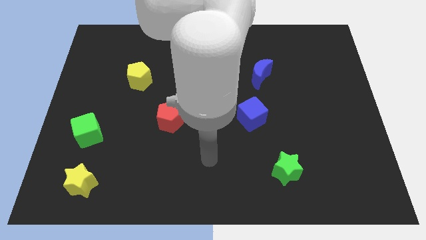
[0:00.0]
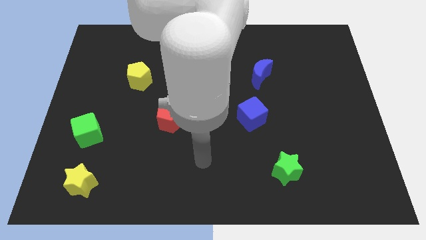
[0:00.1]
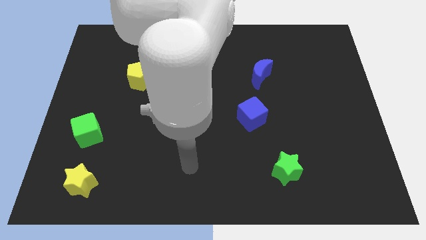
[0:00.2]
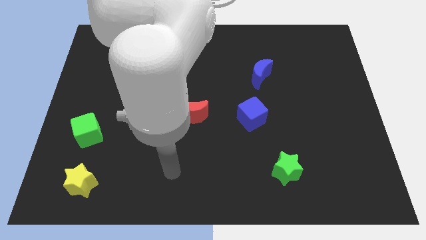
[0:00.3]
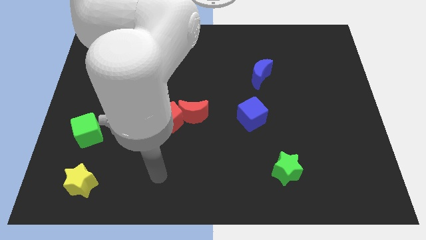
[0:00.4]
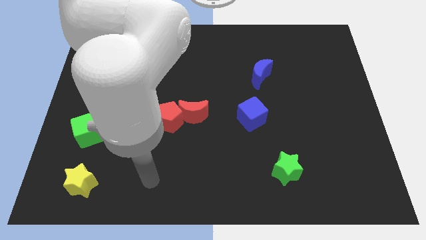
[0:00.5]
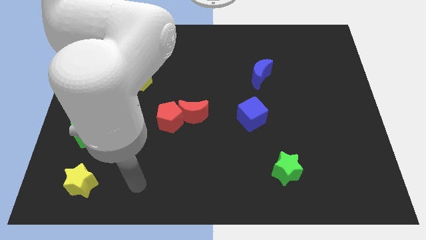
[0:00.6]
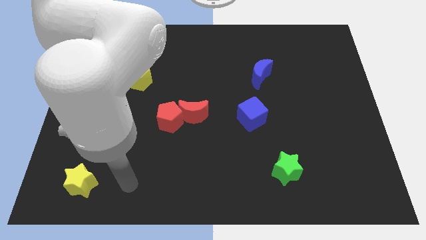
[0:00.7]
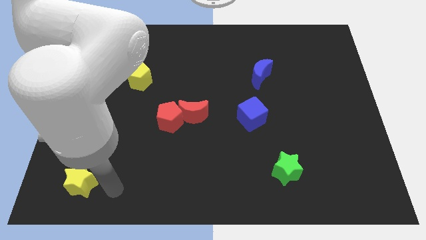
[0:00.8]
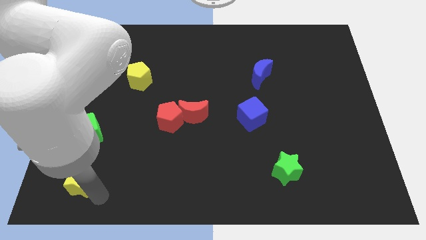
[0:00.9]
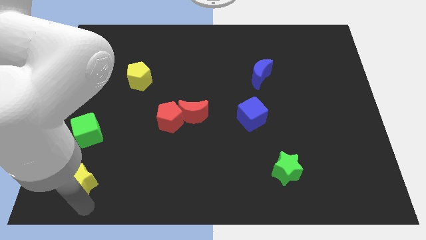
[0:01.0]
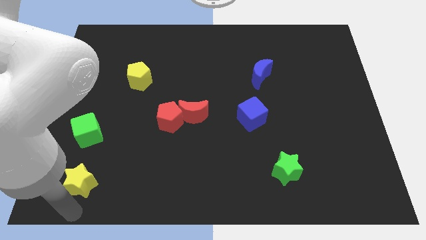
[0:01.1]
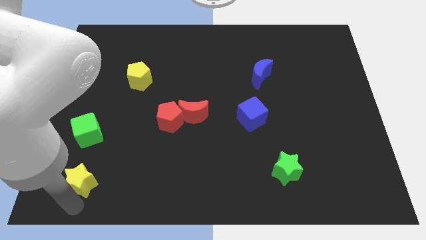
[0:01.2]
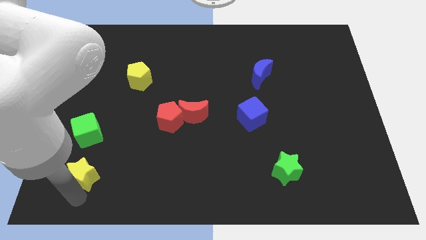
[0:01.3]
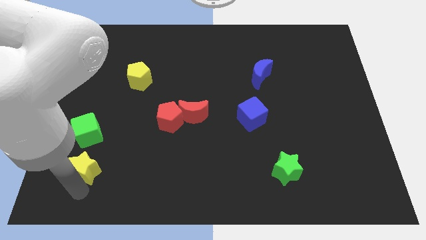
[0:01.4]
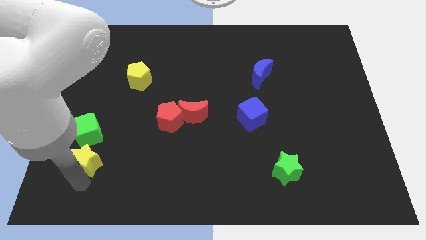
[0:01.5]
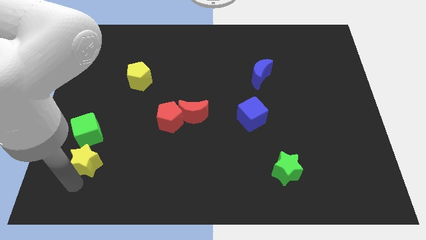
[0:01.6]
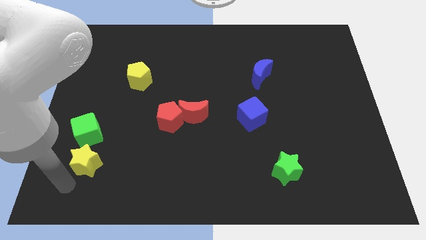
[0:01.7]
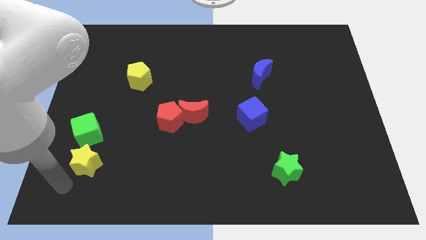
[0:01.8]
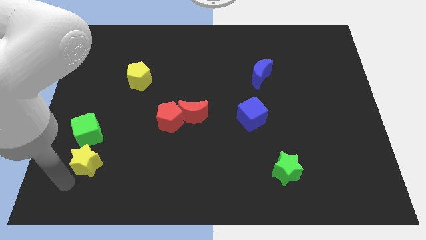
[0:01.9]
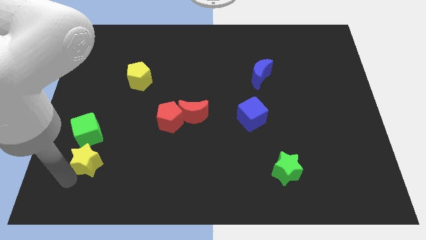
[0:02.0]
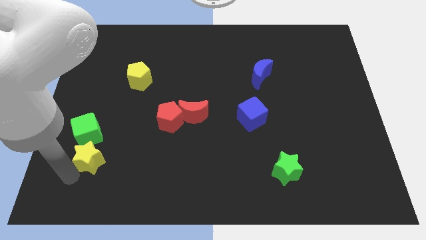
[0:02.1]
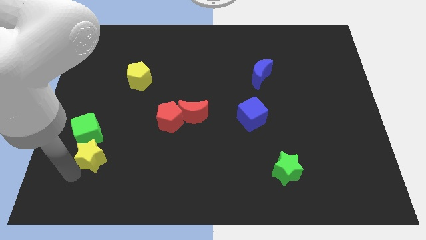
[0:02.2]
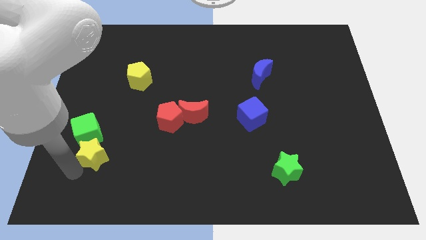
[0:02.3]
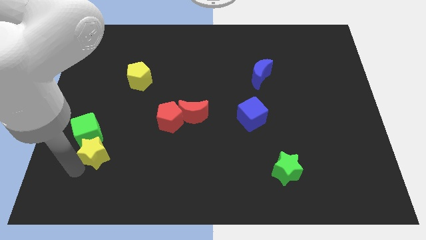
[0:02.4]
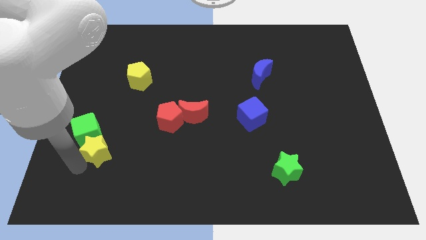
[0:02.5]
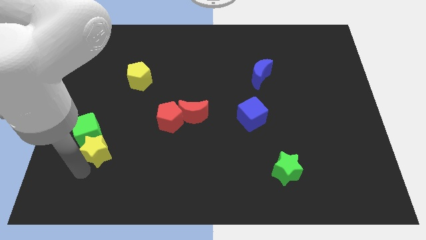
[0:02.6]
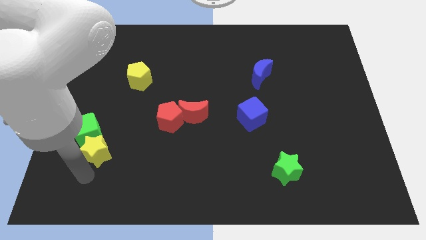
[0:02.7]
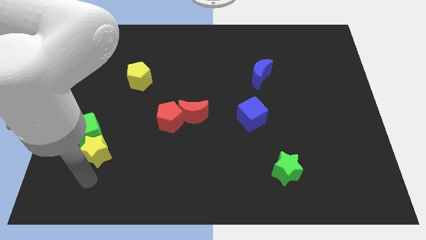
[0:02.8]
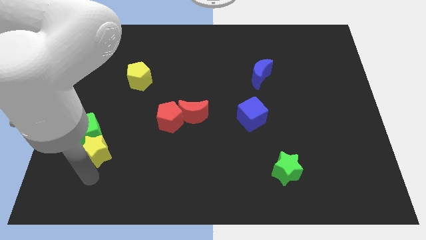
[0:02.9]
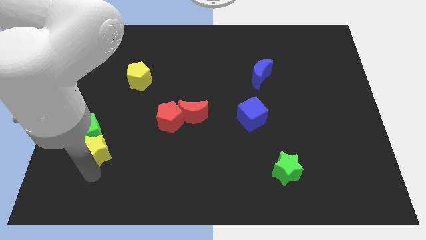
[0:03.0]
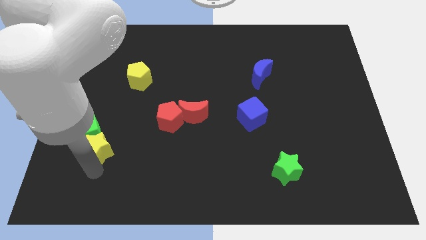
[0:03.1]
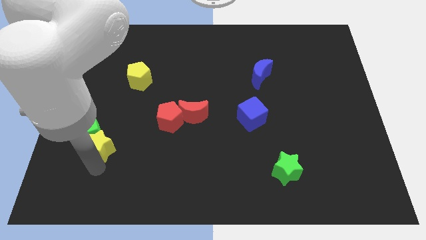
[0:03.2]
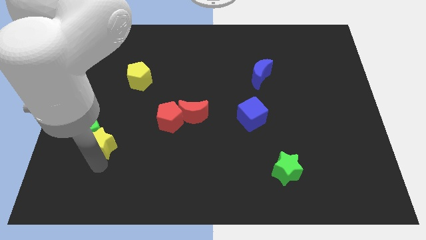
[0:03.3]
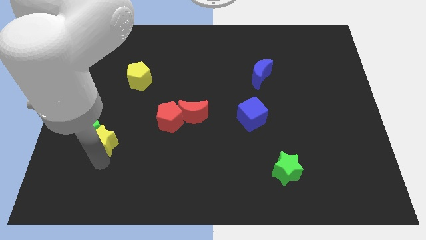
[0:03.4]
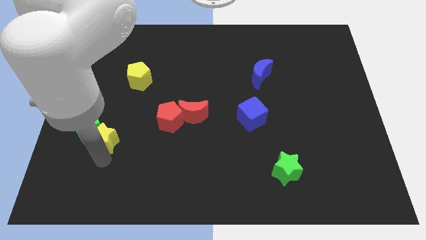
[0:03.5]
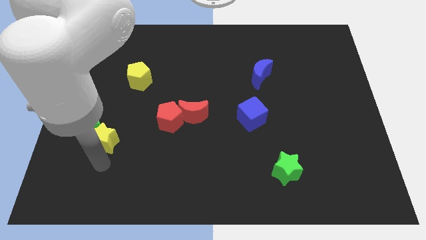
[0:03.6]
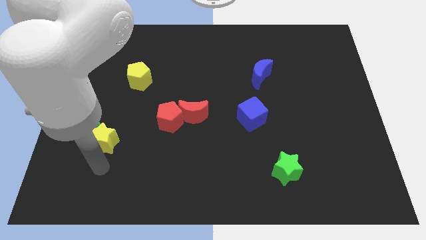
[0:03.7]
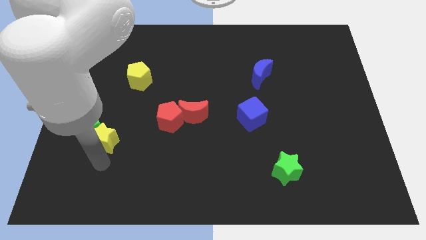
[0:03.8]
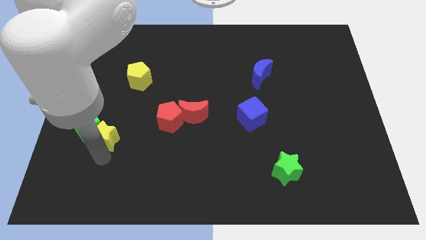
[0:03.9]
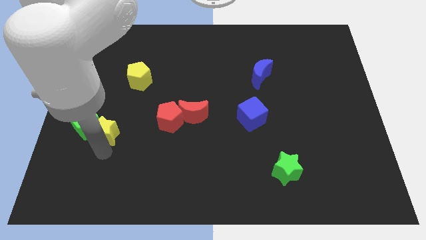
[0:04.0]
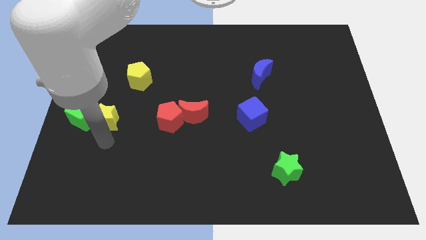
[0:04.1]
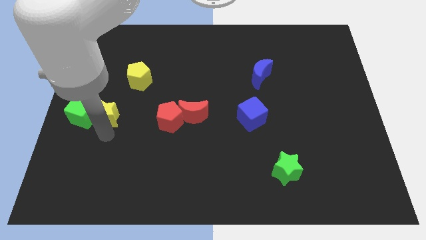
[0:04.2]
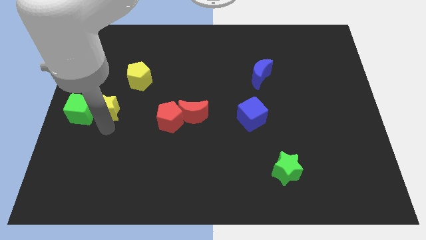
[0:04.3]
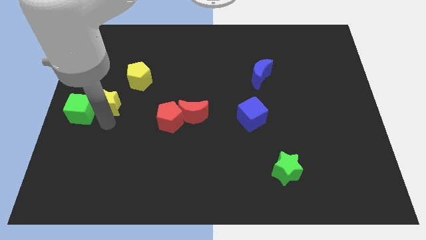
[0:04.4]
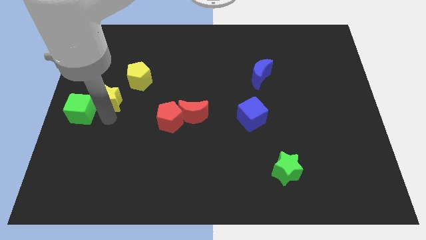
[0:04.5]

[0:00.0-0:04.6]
move the yellow star upwards

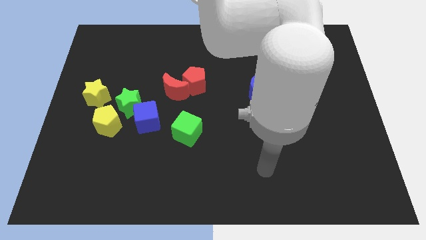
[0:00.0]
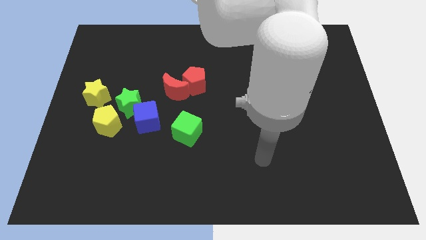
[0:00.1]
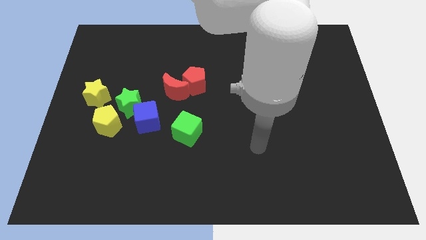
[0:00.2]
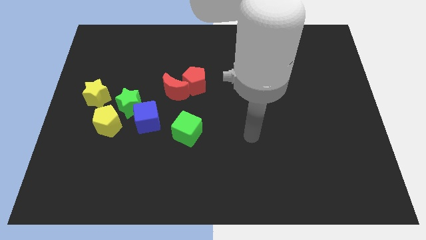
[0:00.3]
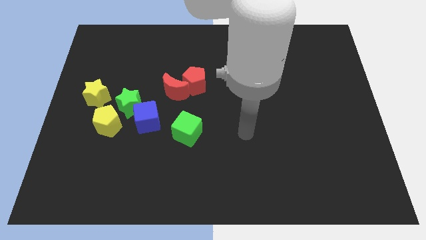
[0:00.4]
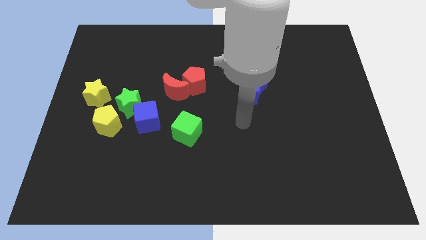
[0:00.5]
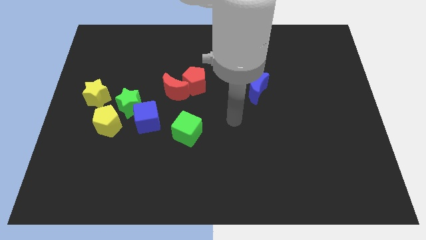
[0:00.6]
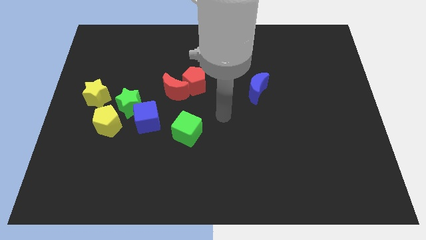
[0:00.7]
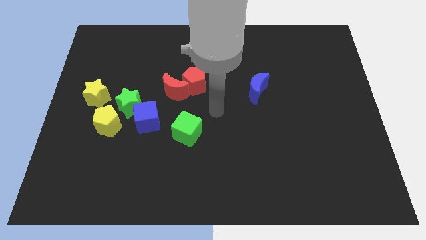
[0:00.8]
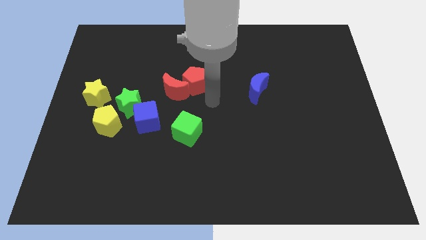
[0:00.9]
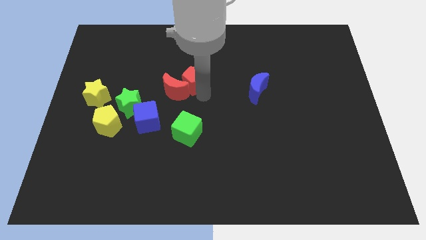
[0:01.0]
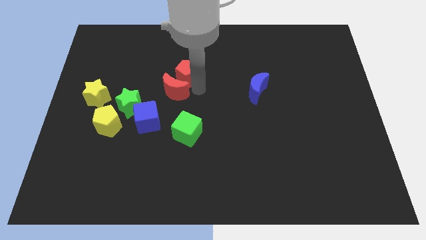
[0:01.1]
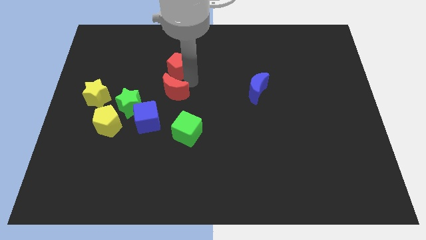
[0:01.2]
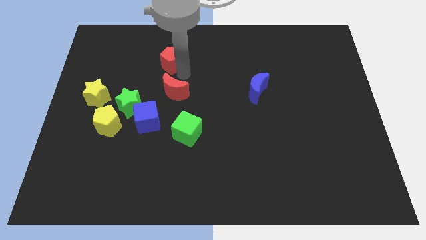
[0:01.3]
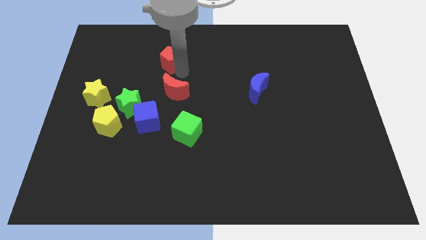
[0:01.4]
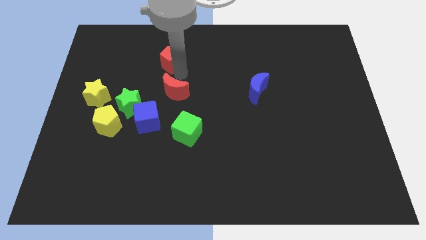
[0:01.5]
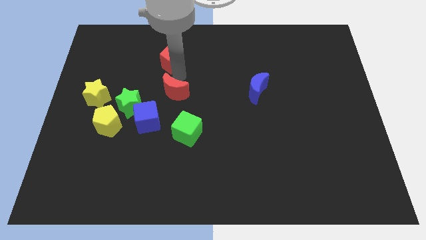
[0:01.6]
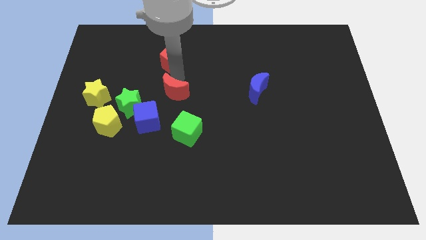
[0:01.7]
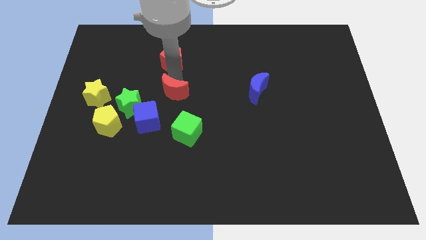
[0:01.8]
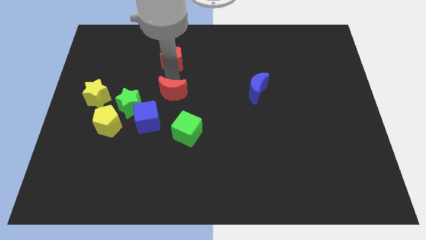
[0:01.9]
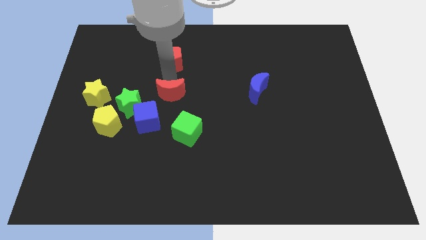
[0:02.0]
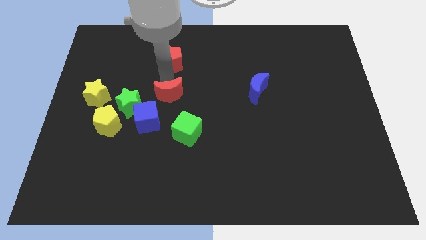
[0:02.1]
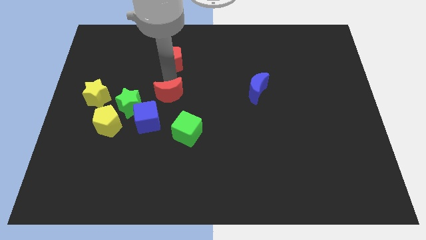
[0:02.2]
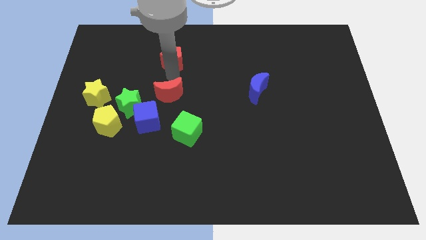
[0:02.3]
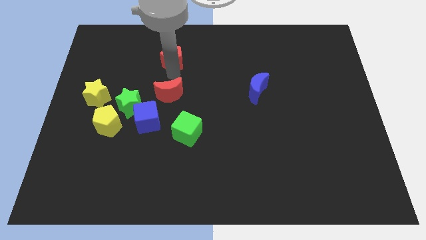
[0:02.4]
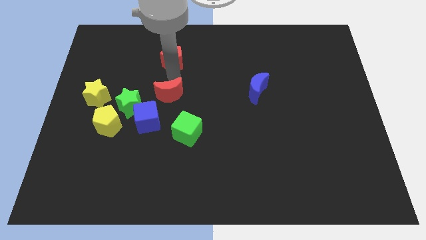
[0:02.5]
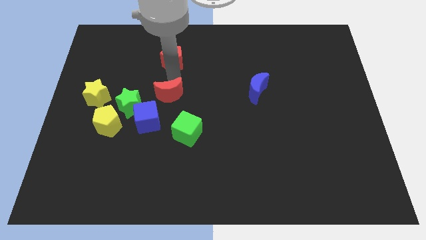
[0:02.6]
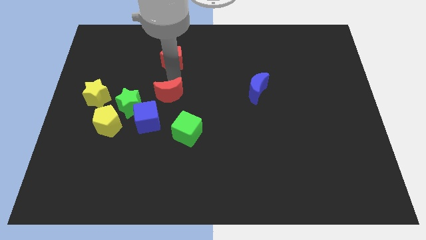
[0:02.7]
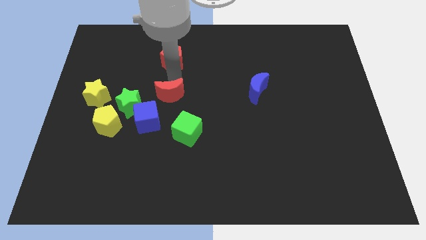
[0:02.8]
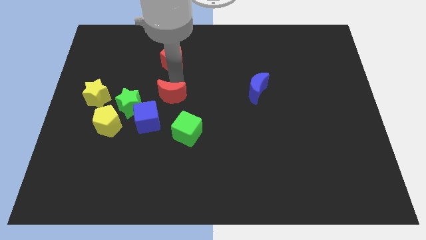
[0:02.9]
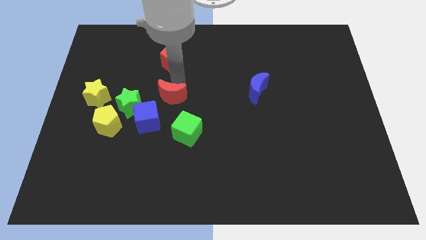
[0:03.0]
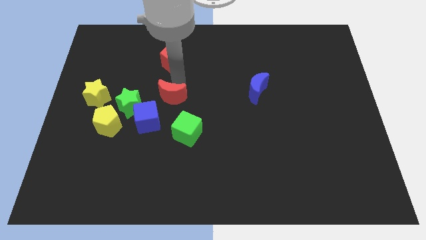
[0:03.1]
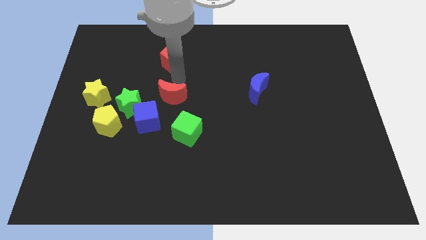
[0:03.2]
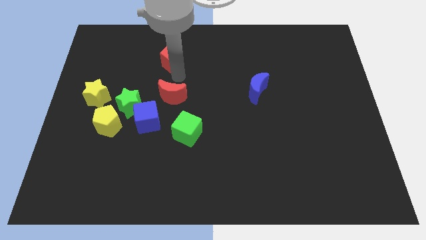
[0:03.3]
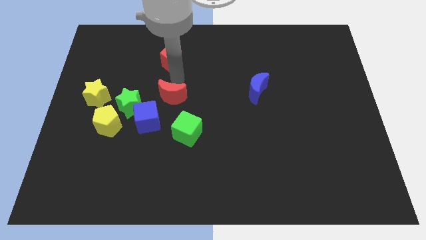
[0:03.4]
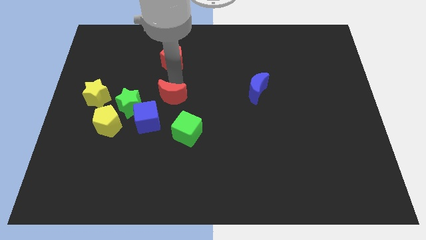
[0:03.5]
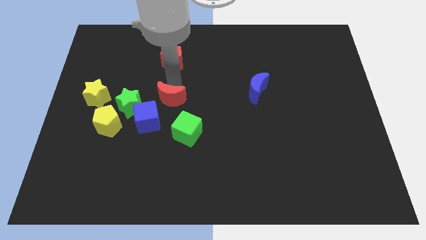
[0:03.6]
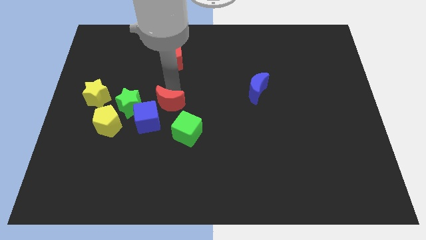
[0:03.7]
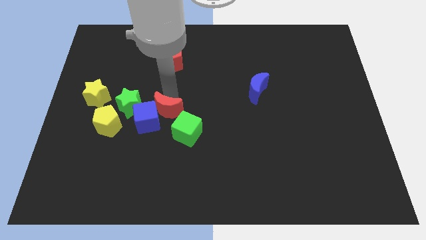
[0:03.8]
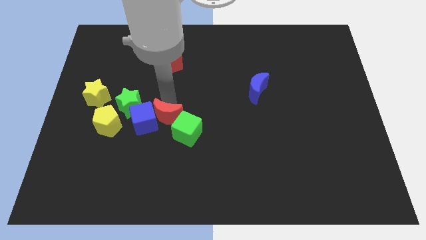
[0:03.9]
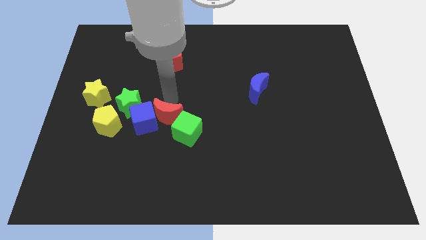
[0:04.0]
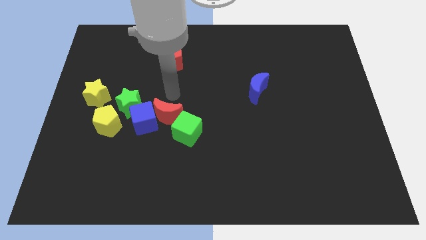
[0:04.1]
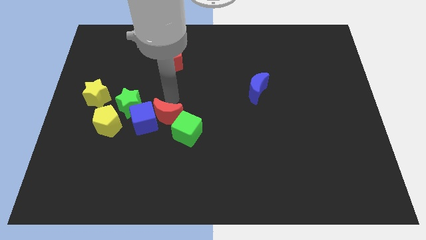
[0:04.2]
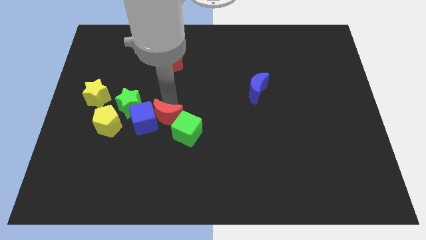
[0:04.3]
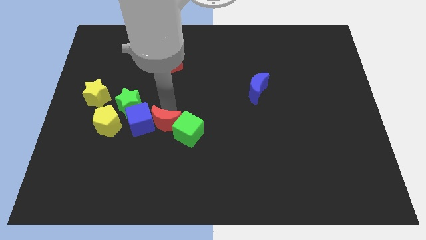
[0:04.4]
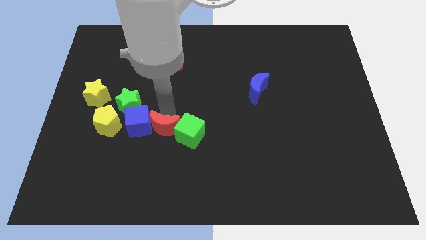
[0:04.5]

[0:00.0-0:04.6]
push the red moon a bit downwards and to the left
